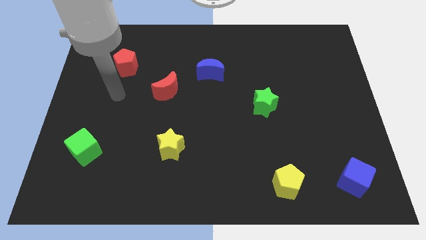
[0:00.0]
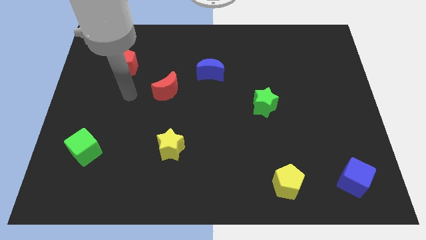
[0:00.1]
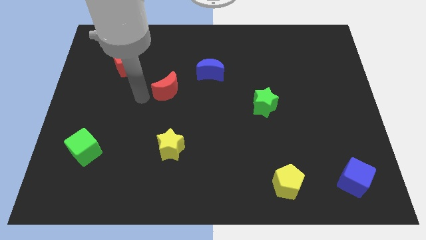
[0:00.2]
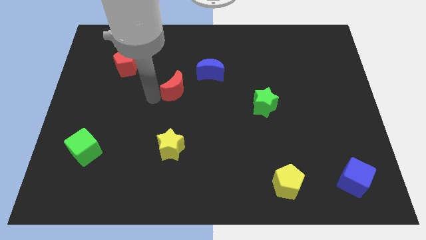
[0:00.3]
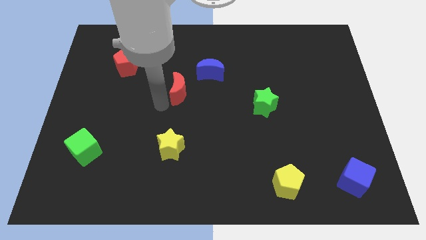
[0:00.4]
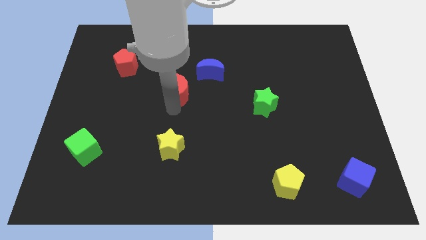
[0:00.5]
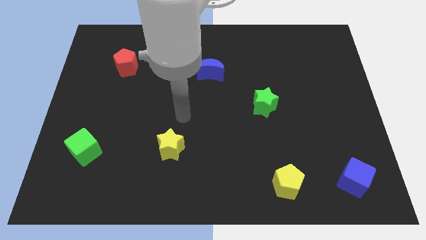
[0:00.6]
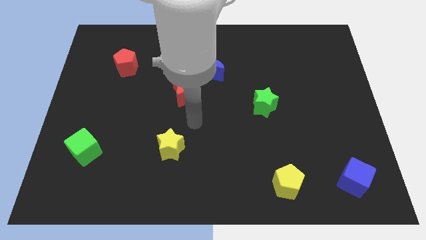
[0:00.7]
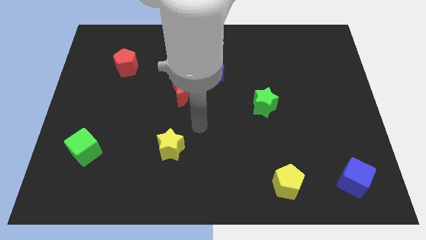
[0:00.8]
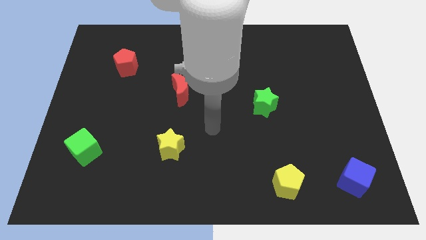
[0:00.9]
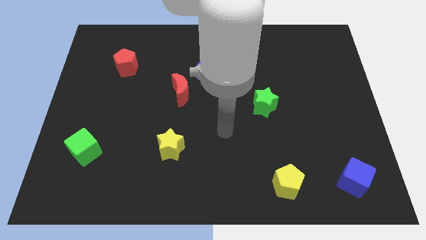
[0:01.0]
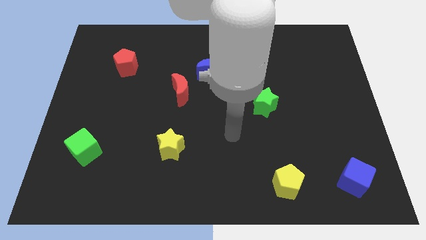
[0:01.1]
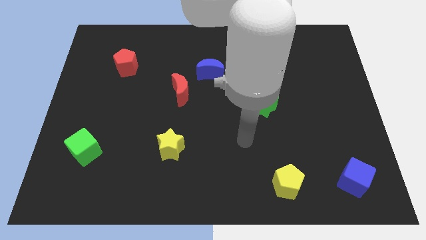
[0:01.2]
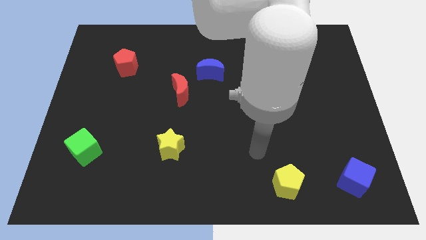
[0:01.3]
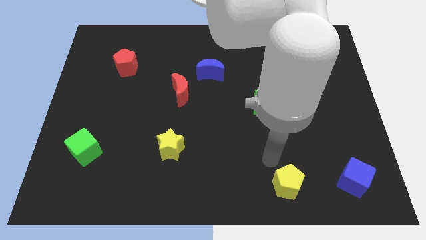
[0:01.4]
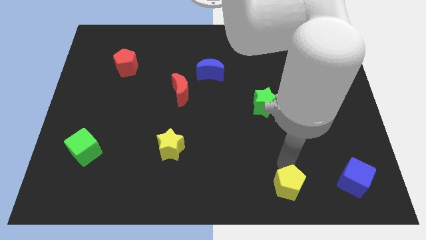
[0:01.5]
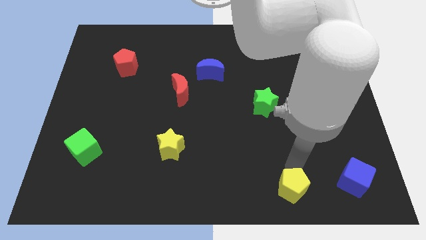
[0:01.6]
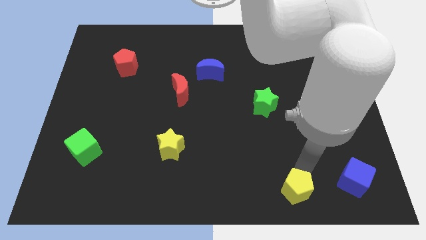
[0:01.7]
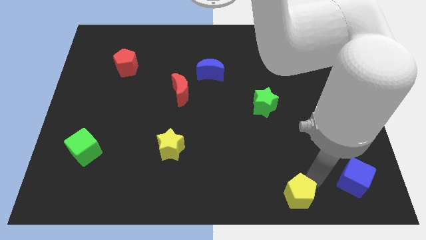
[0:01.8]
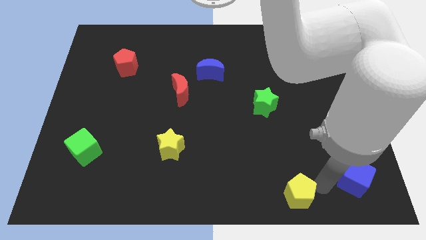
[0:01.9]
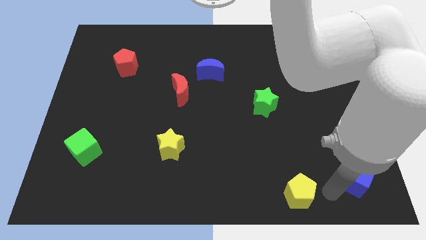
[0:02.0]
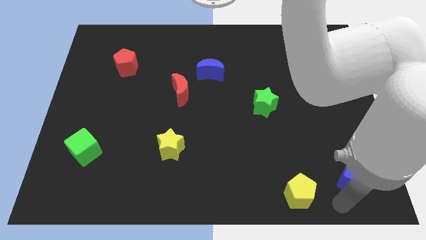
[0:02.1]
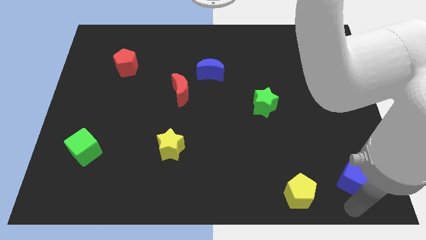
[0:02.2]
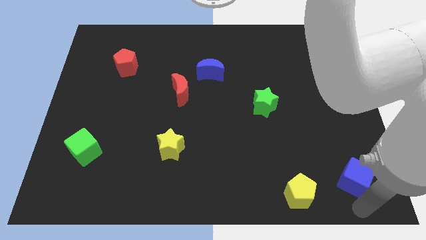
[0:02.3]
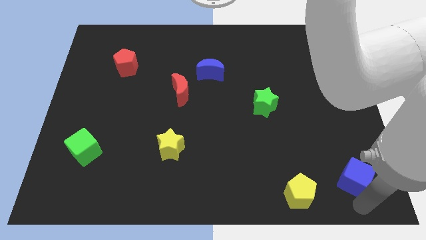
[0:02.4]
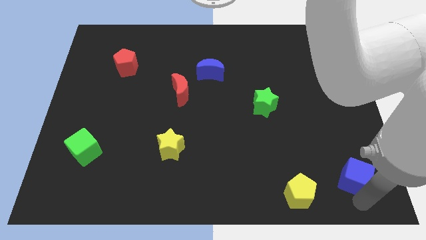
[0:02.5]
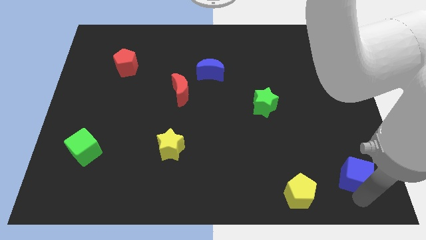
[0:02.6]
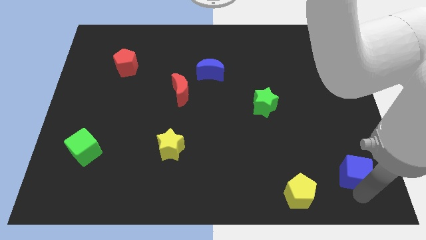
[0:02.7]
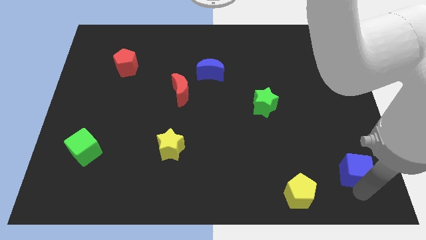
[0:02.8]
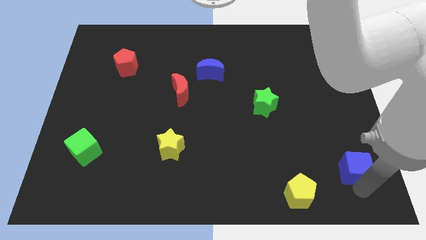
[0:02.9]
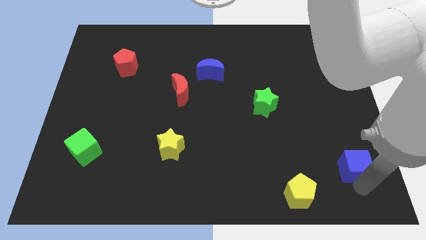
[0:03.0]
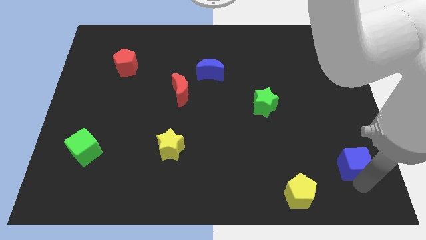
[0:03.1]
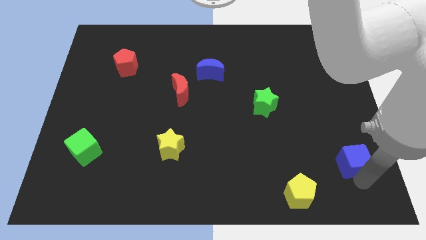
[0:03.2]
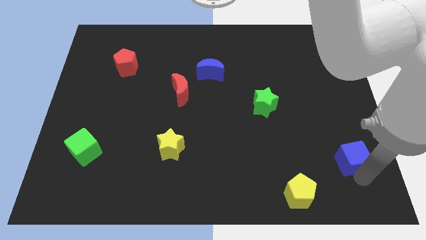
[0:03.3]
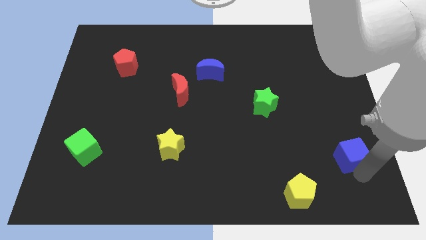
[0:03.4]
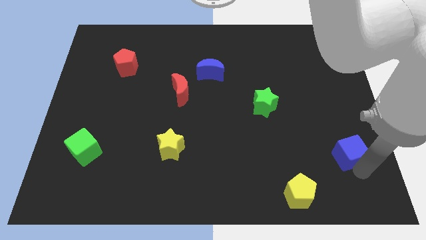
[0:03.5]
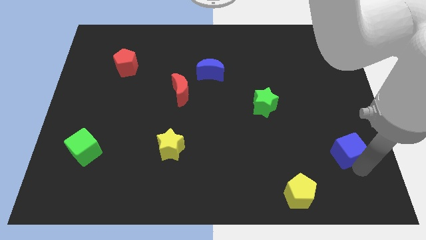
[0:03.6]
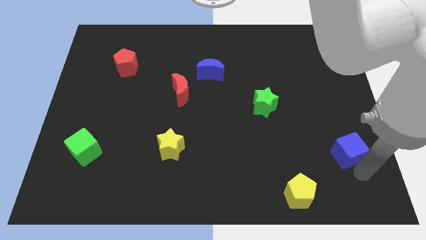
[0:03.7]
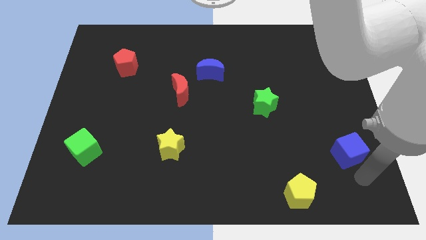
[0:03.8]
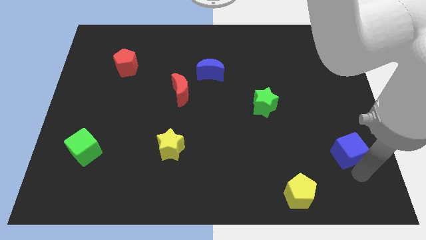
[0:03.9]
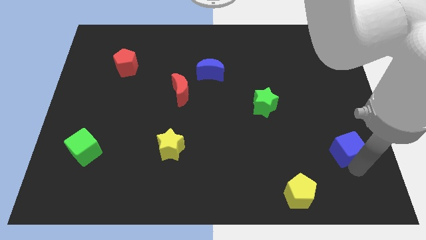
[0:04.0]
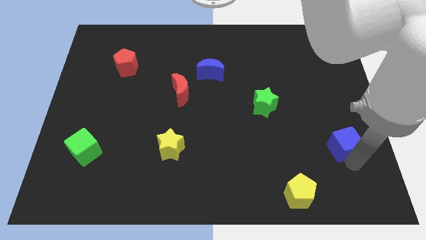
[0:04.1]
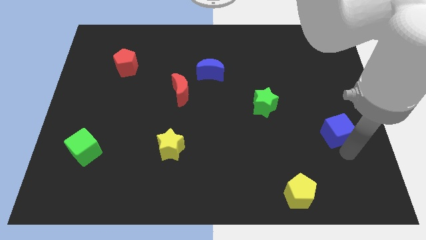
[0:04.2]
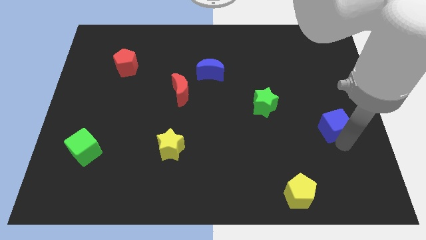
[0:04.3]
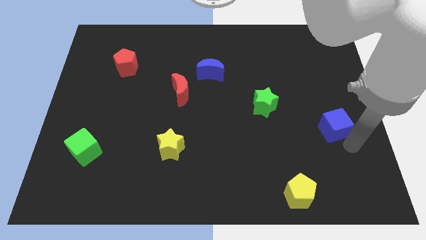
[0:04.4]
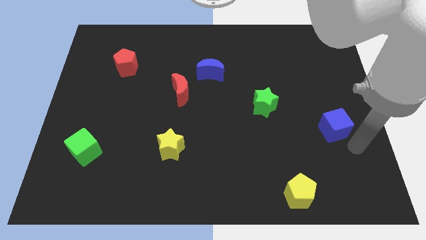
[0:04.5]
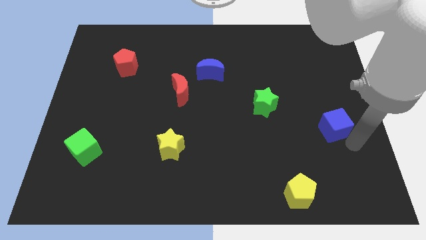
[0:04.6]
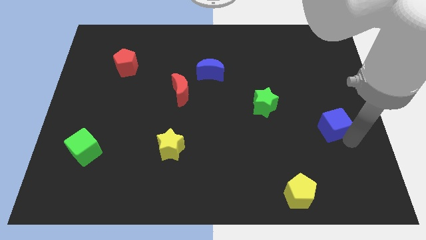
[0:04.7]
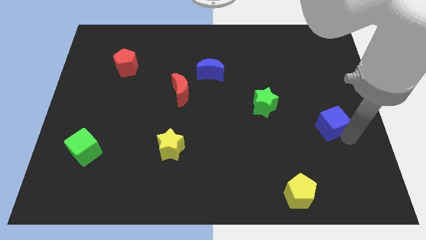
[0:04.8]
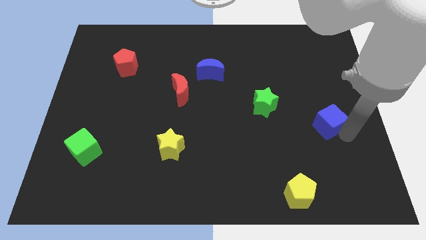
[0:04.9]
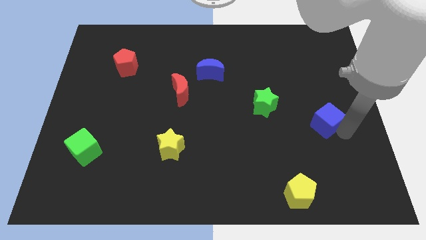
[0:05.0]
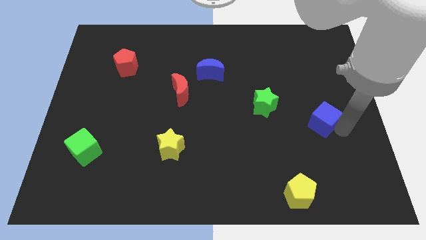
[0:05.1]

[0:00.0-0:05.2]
move the blue cube to the right side of the green star

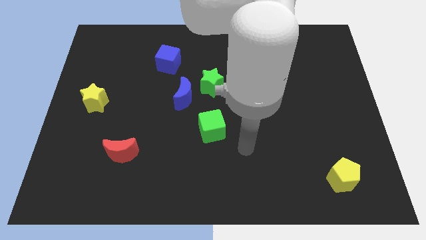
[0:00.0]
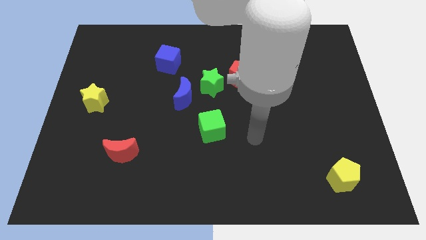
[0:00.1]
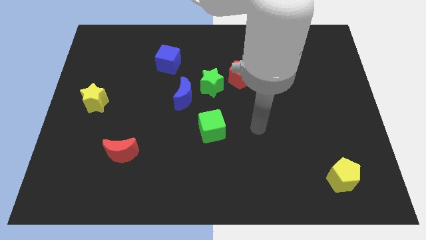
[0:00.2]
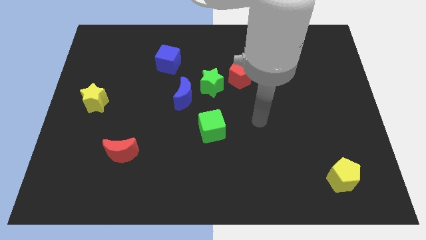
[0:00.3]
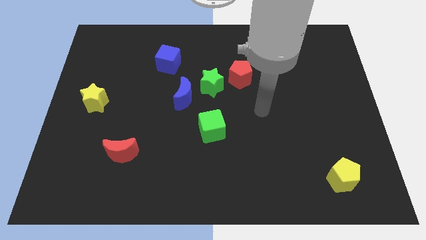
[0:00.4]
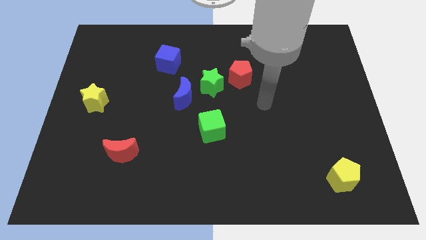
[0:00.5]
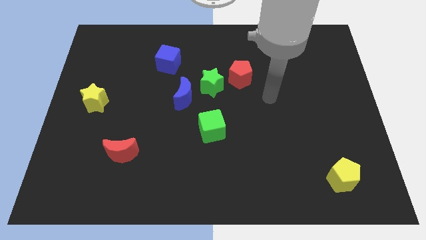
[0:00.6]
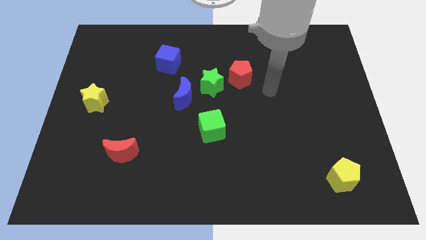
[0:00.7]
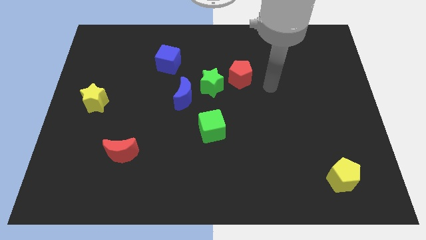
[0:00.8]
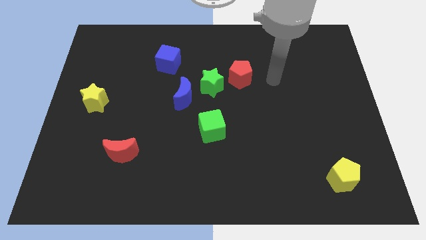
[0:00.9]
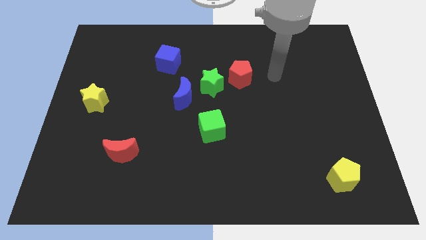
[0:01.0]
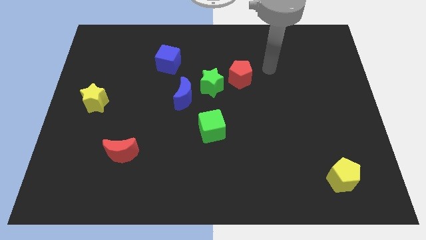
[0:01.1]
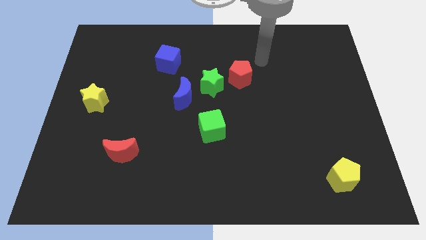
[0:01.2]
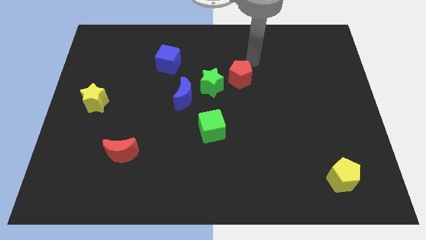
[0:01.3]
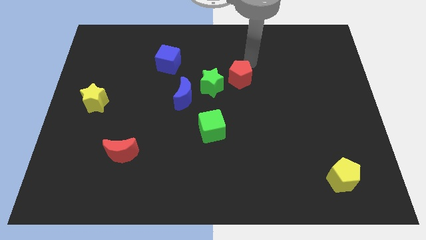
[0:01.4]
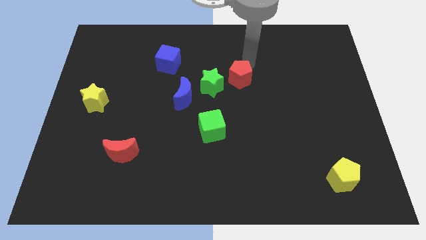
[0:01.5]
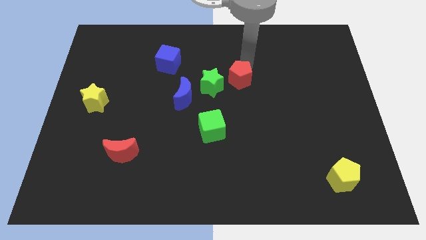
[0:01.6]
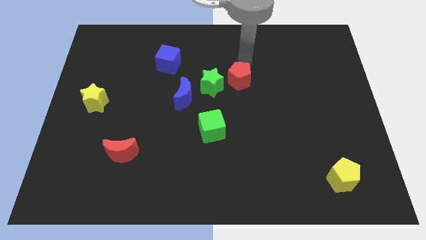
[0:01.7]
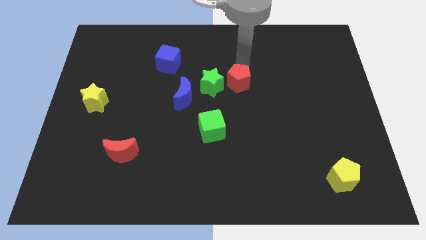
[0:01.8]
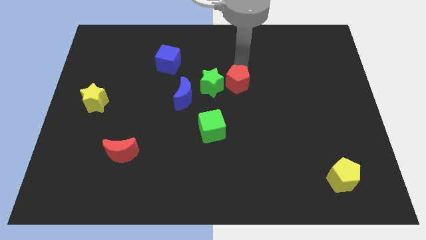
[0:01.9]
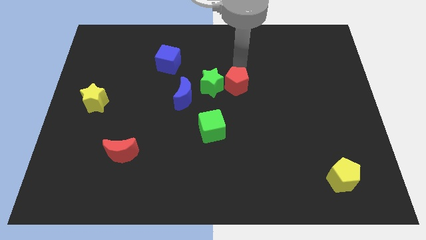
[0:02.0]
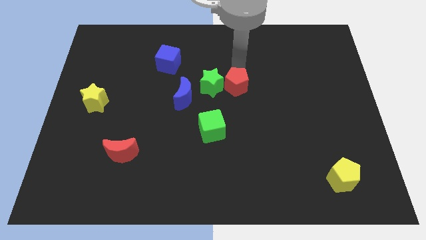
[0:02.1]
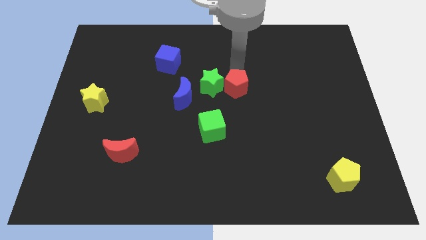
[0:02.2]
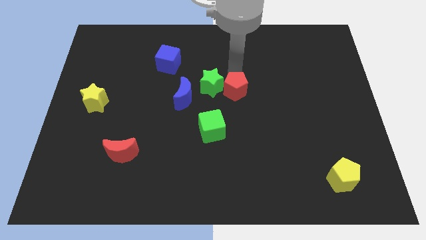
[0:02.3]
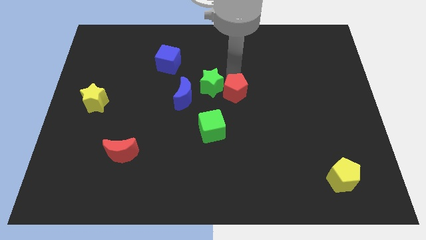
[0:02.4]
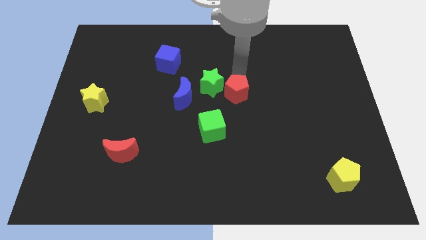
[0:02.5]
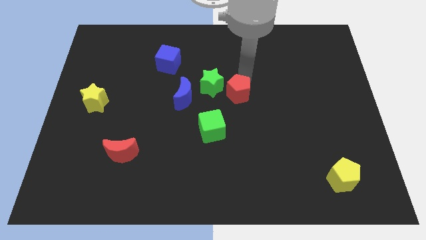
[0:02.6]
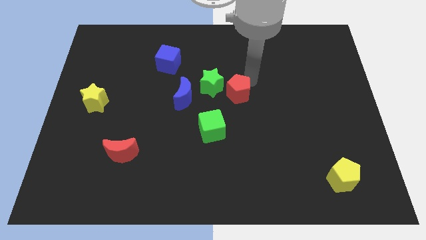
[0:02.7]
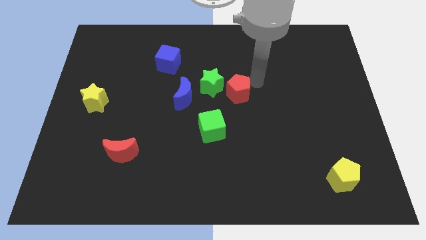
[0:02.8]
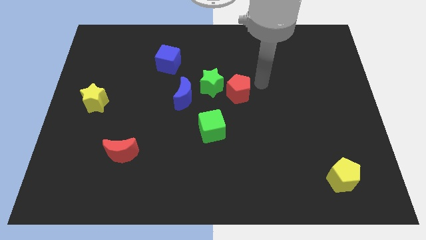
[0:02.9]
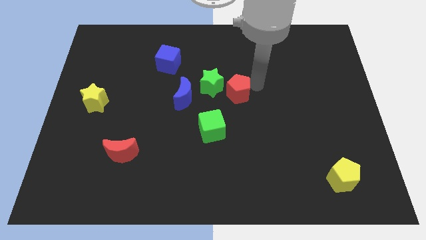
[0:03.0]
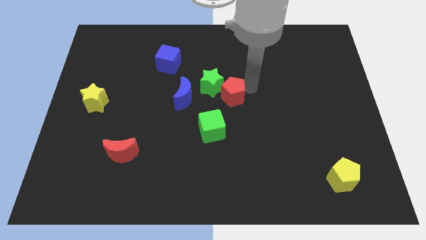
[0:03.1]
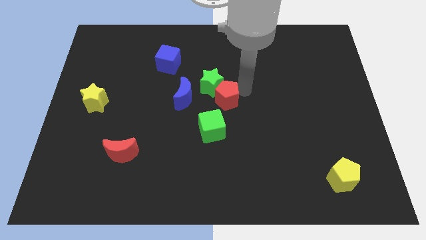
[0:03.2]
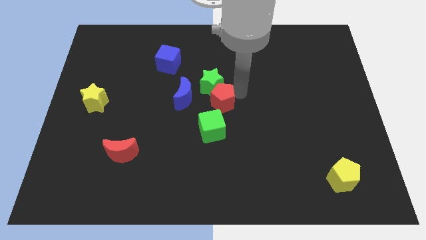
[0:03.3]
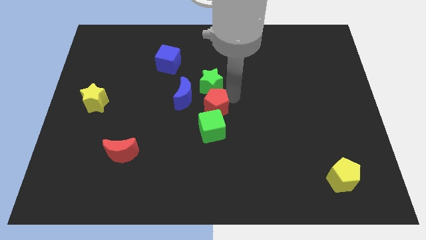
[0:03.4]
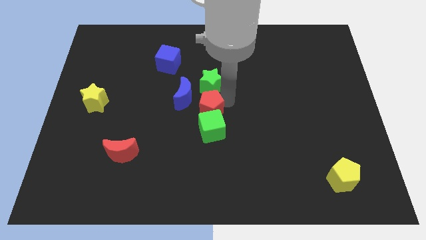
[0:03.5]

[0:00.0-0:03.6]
slide the red pentagon to the top left of the green cube
